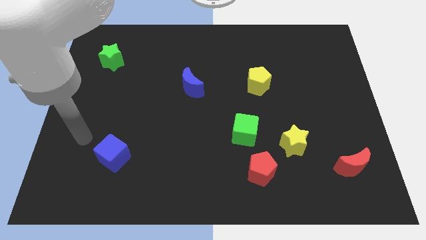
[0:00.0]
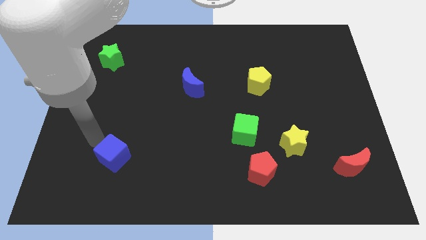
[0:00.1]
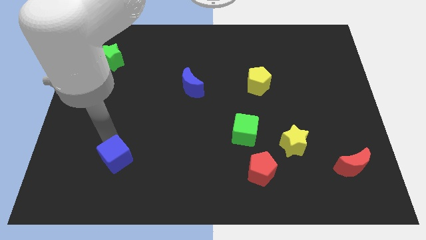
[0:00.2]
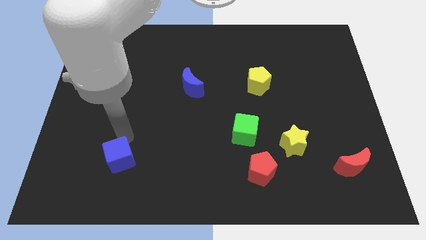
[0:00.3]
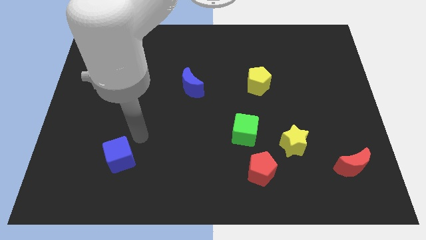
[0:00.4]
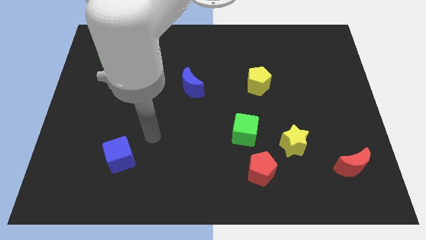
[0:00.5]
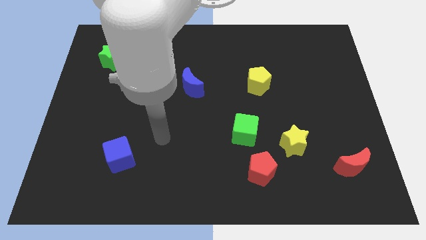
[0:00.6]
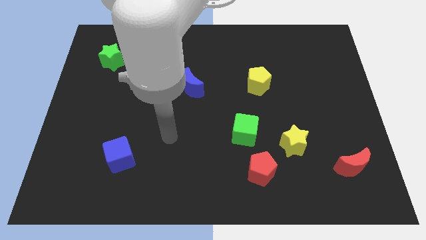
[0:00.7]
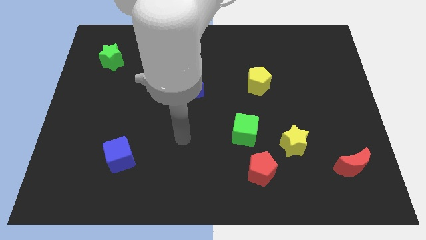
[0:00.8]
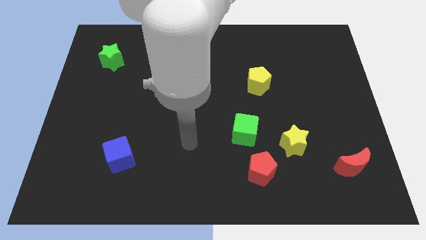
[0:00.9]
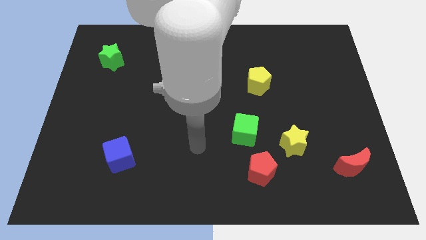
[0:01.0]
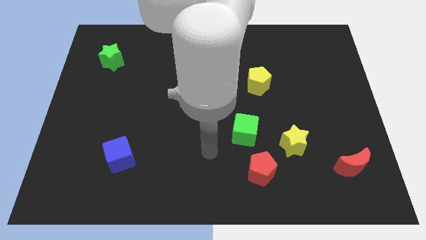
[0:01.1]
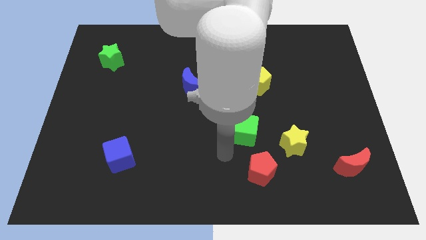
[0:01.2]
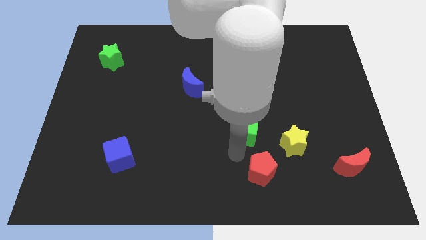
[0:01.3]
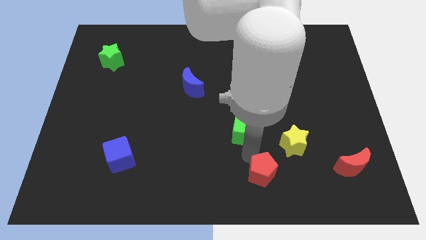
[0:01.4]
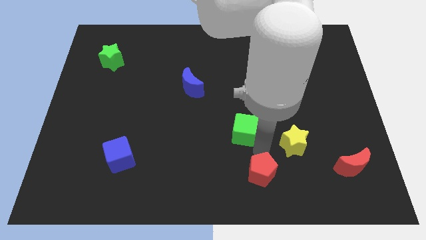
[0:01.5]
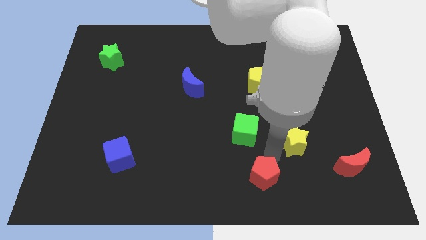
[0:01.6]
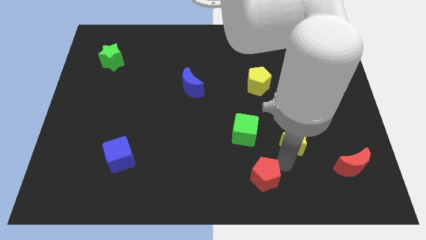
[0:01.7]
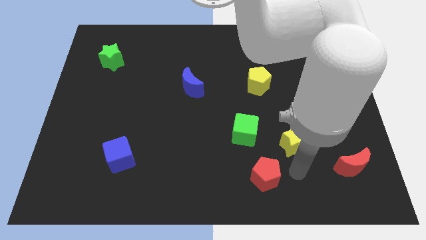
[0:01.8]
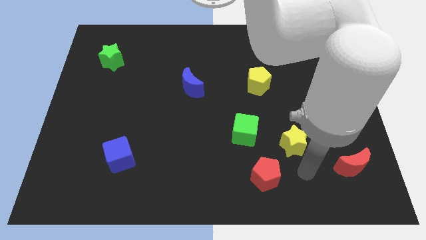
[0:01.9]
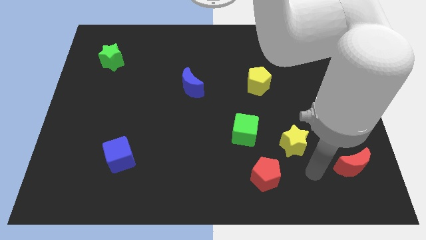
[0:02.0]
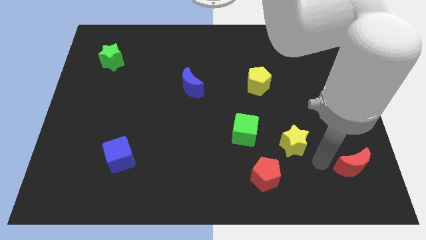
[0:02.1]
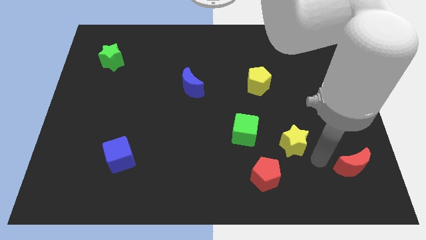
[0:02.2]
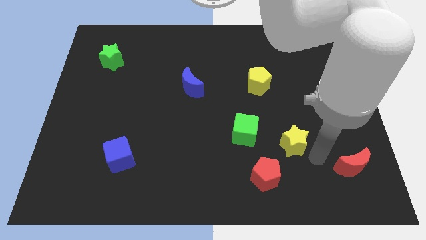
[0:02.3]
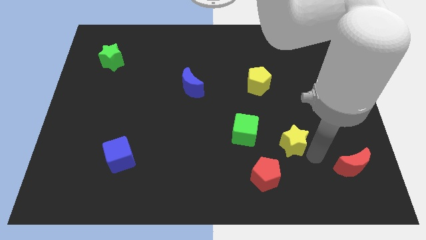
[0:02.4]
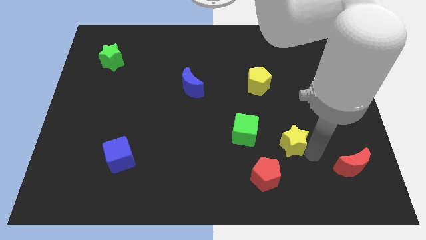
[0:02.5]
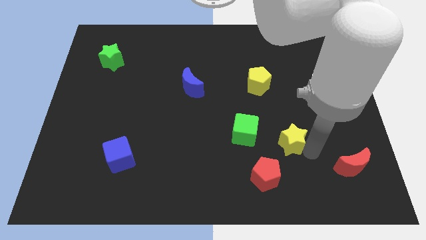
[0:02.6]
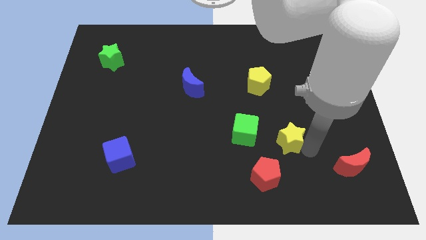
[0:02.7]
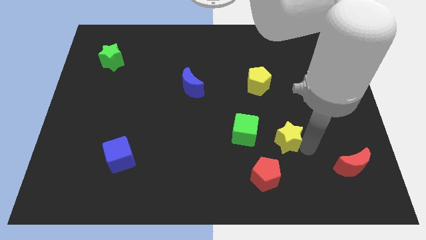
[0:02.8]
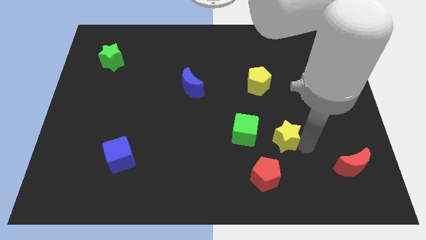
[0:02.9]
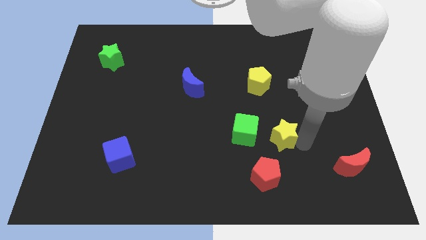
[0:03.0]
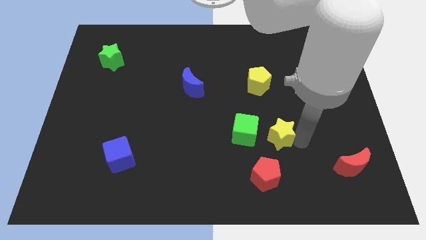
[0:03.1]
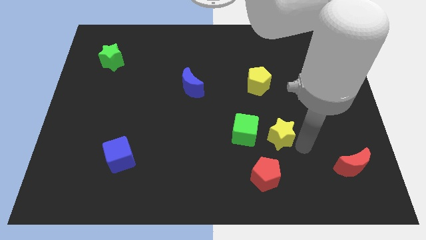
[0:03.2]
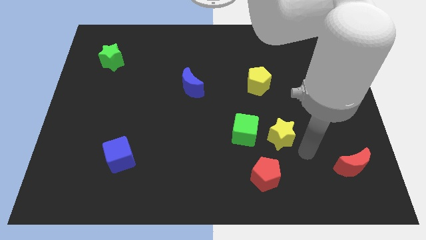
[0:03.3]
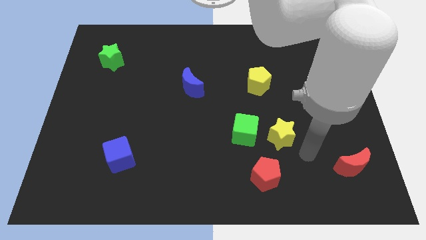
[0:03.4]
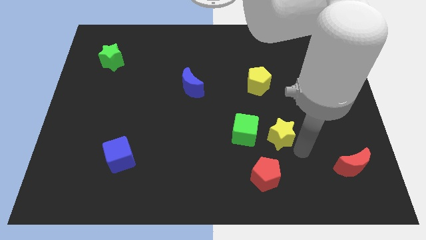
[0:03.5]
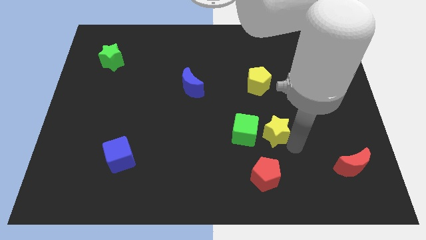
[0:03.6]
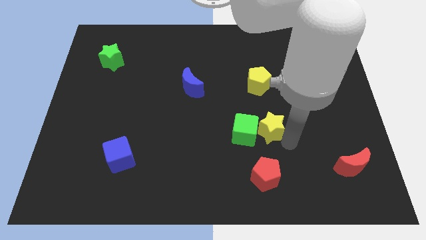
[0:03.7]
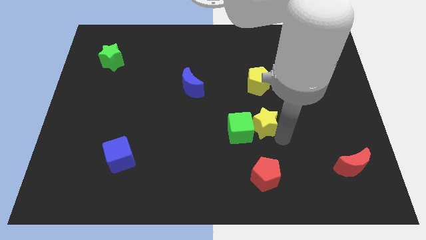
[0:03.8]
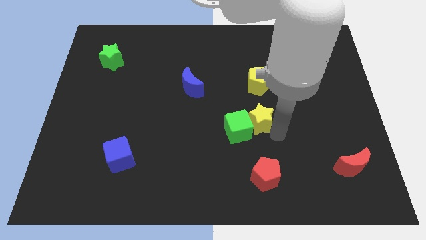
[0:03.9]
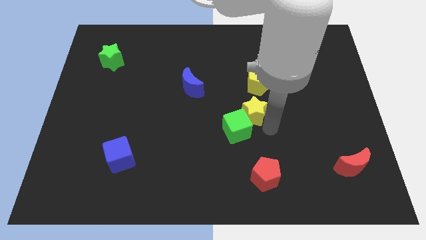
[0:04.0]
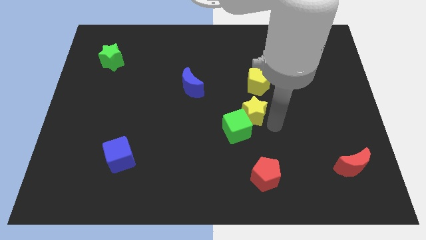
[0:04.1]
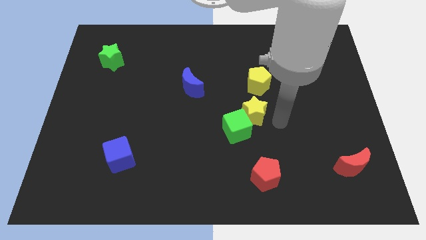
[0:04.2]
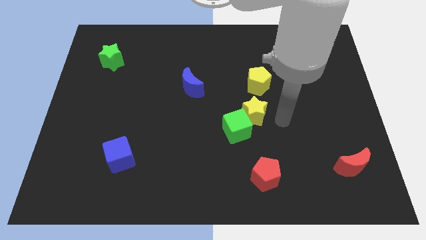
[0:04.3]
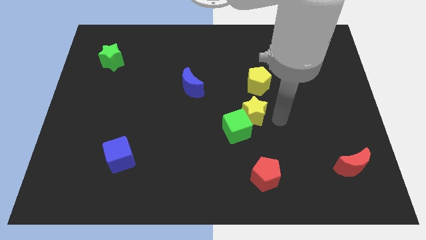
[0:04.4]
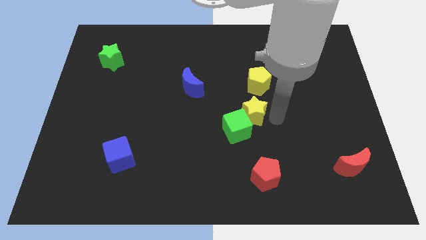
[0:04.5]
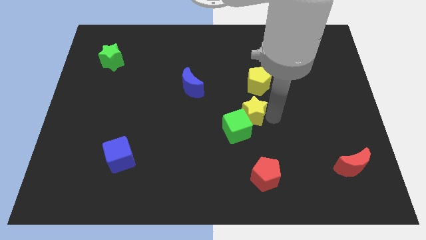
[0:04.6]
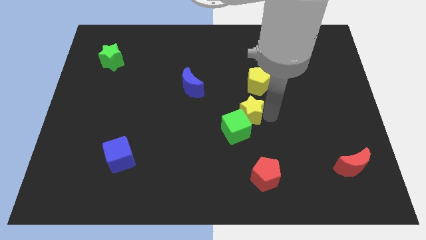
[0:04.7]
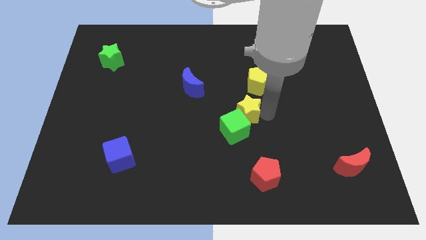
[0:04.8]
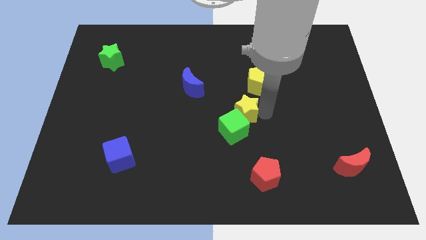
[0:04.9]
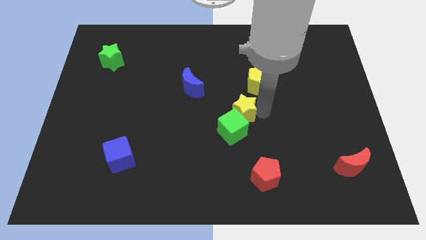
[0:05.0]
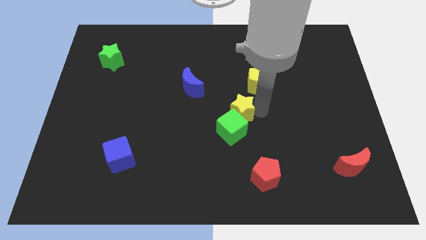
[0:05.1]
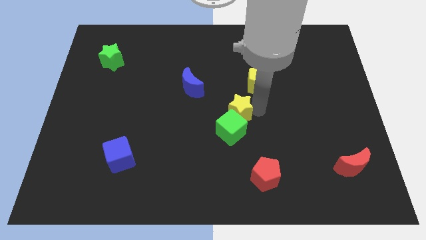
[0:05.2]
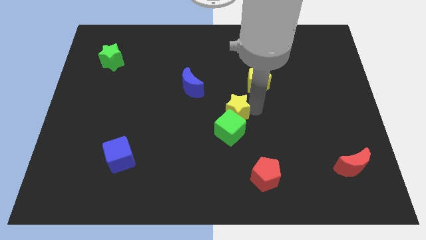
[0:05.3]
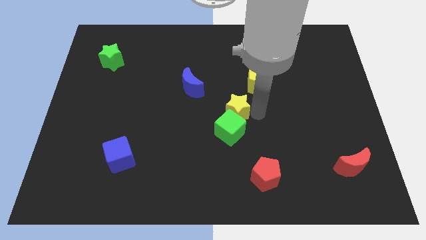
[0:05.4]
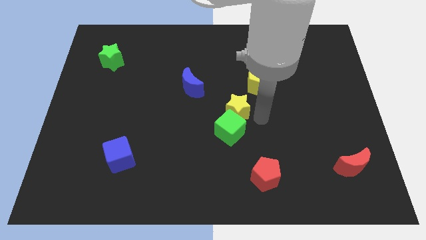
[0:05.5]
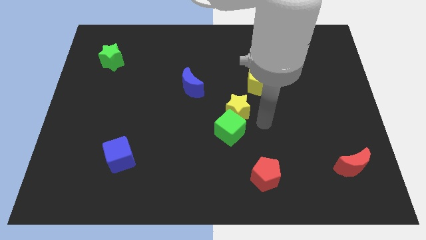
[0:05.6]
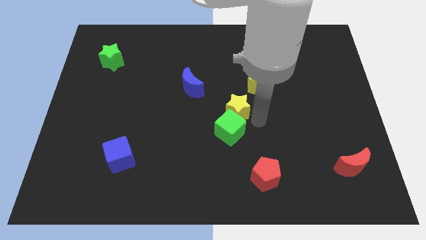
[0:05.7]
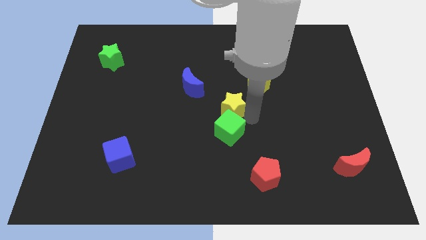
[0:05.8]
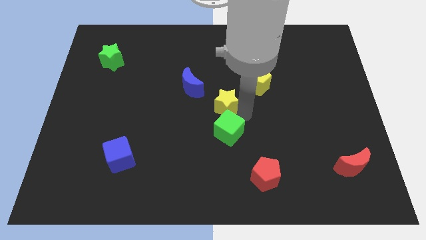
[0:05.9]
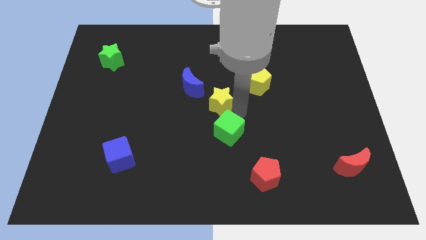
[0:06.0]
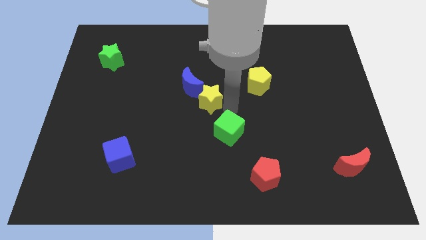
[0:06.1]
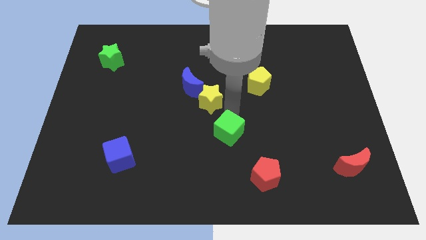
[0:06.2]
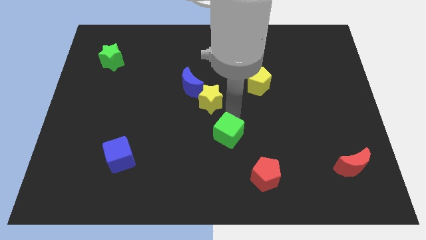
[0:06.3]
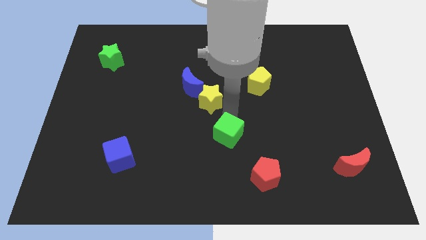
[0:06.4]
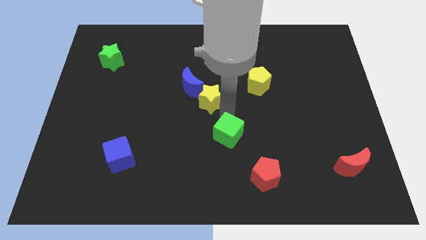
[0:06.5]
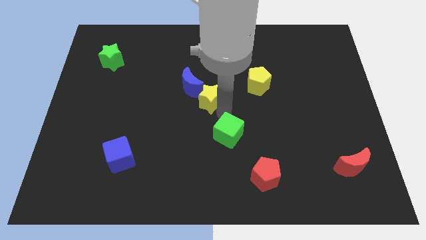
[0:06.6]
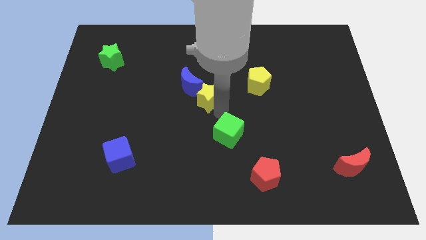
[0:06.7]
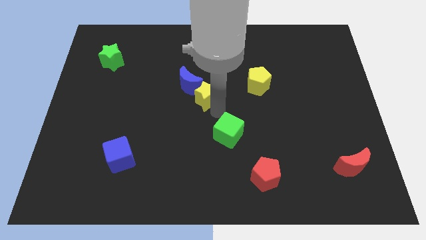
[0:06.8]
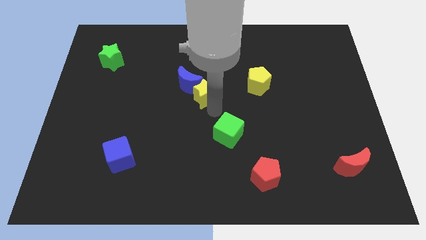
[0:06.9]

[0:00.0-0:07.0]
move the yellow star close to the blue moon

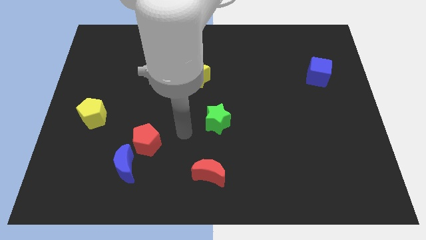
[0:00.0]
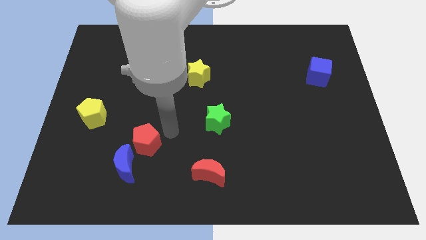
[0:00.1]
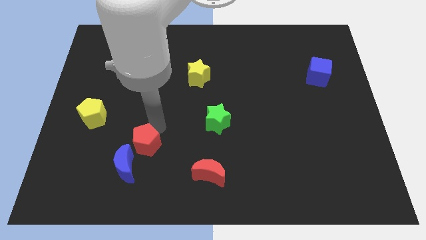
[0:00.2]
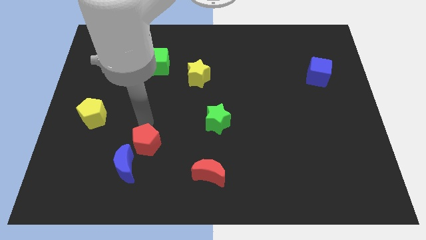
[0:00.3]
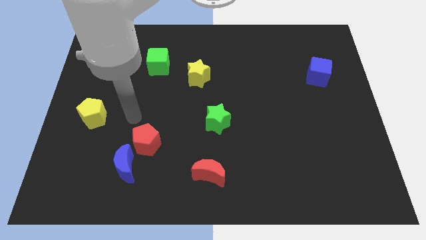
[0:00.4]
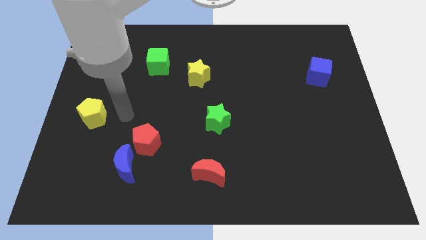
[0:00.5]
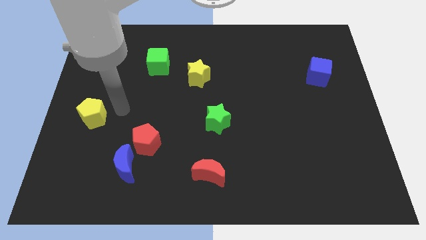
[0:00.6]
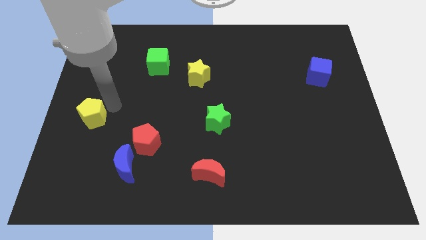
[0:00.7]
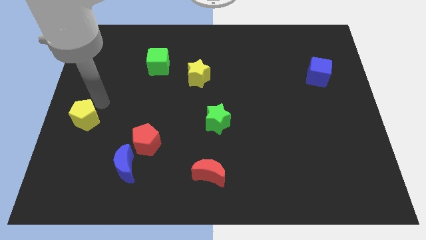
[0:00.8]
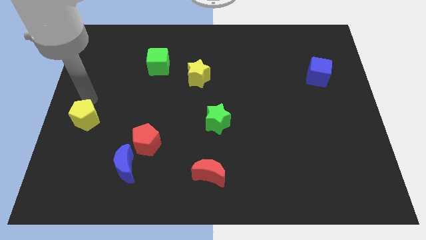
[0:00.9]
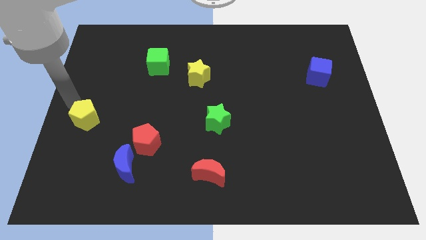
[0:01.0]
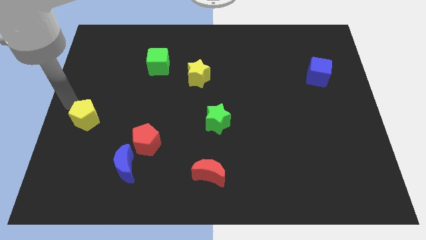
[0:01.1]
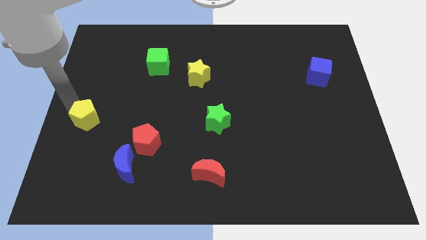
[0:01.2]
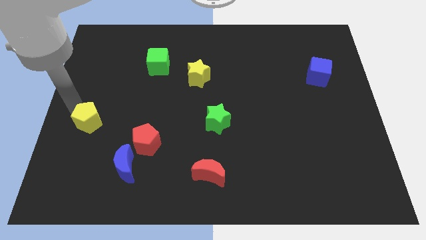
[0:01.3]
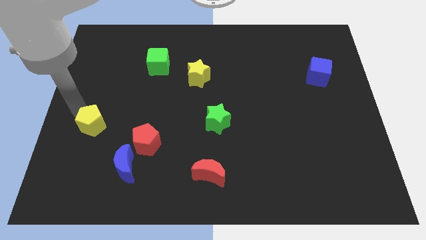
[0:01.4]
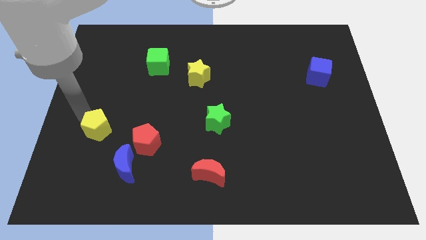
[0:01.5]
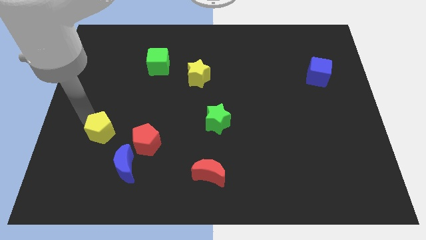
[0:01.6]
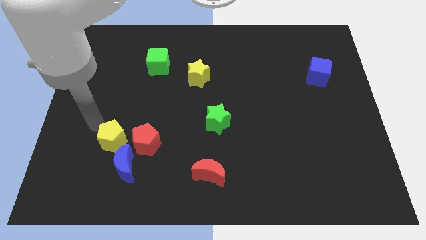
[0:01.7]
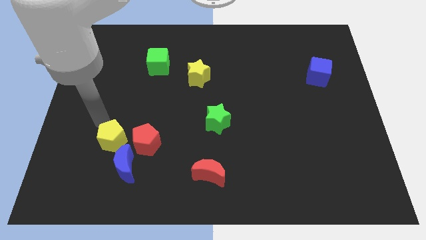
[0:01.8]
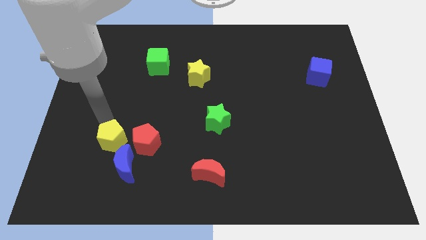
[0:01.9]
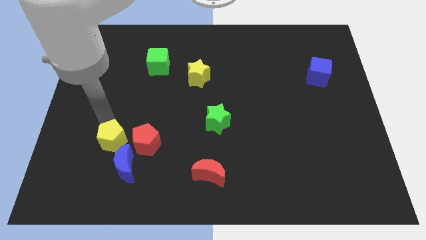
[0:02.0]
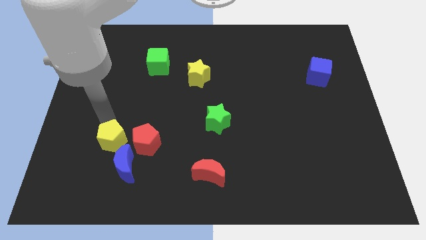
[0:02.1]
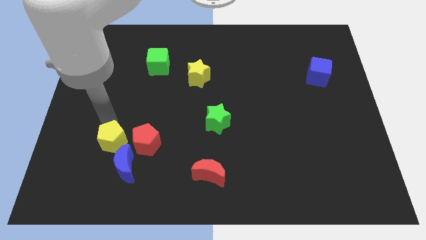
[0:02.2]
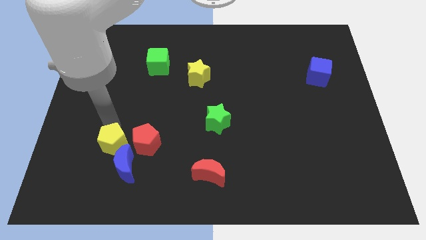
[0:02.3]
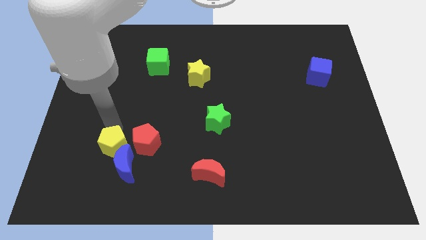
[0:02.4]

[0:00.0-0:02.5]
slide the yellow pentagon to the blue moon
